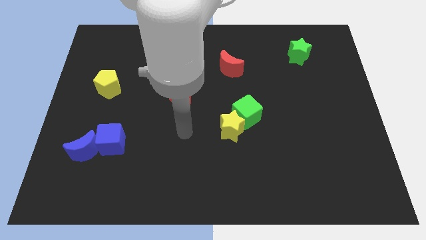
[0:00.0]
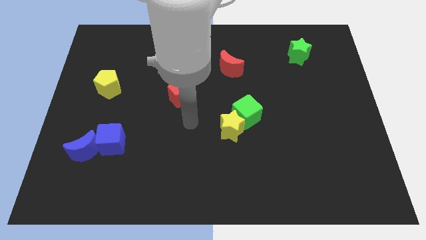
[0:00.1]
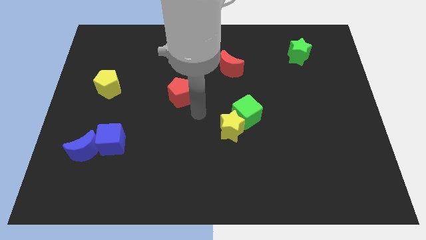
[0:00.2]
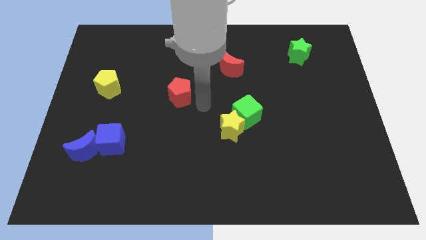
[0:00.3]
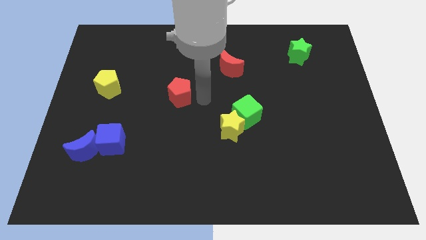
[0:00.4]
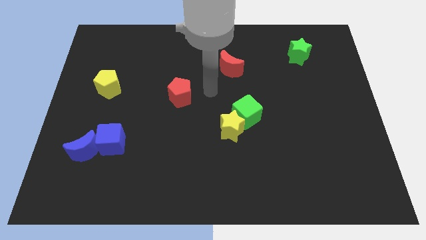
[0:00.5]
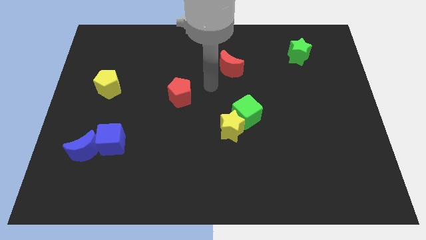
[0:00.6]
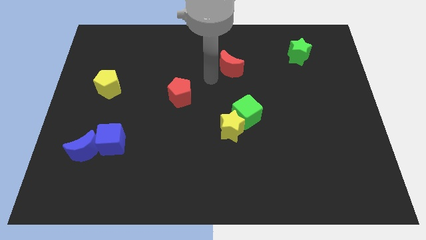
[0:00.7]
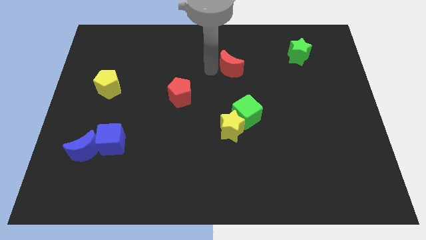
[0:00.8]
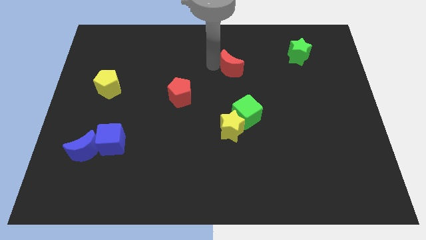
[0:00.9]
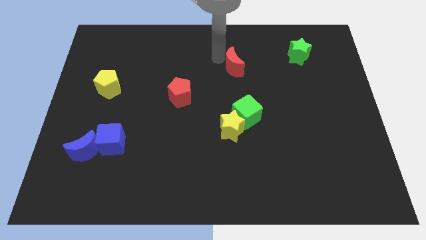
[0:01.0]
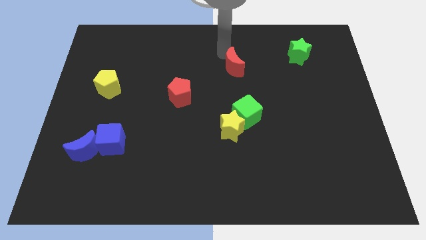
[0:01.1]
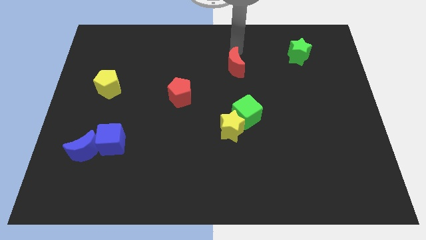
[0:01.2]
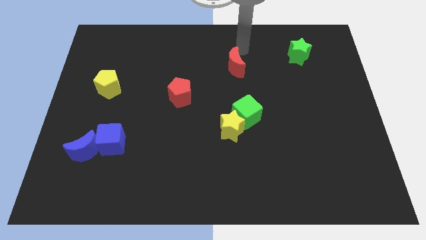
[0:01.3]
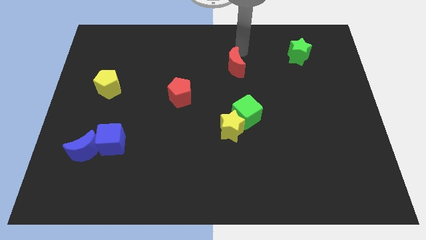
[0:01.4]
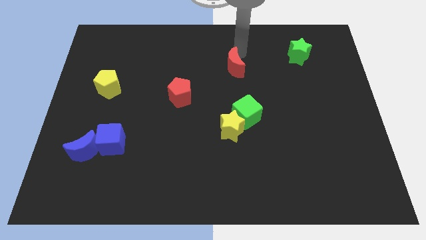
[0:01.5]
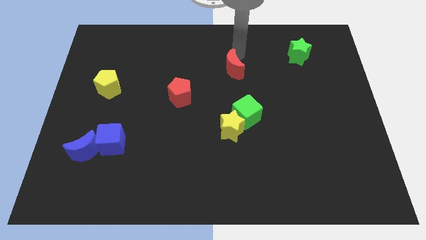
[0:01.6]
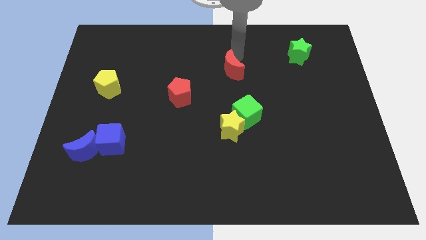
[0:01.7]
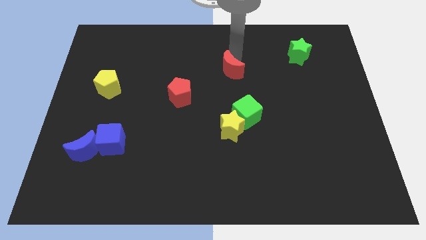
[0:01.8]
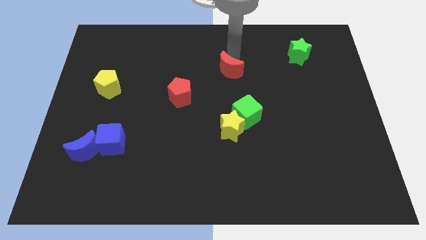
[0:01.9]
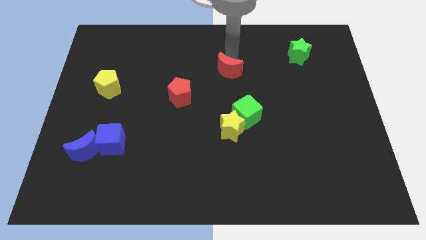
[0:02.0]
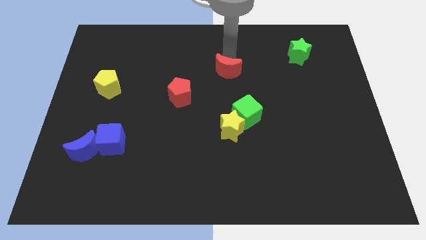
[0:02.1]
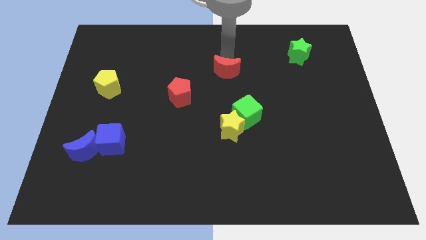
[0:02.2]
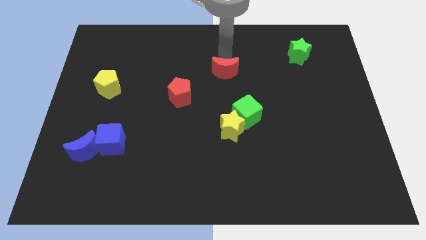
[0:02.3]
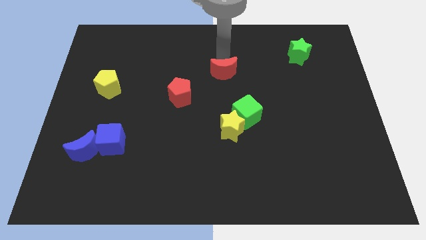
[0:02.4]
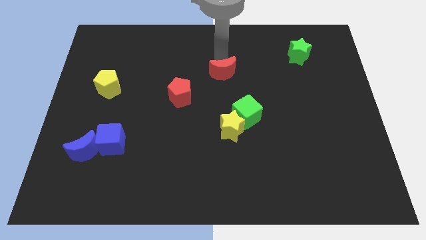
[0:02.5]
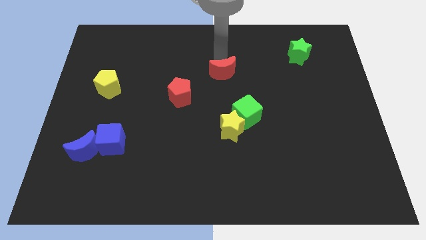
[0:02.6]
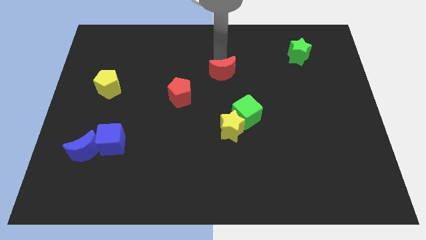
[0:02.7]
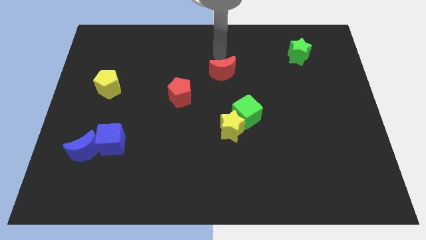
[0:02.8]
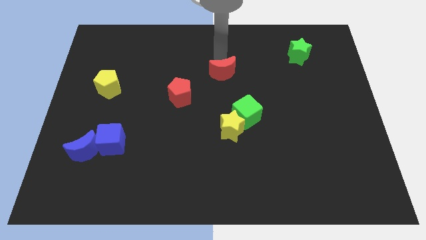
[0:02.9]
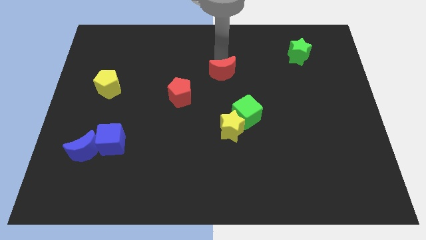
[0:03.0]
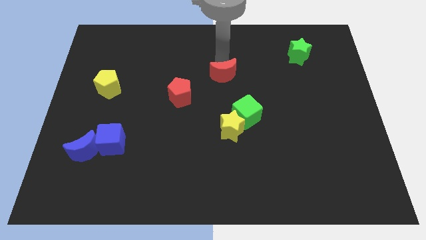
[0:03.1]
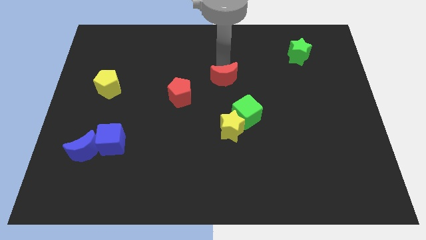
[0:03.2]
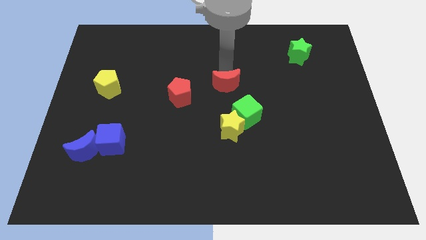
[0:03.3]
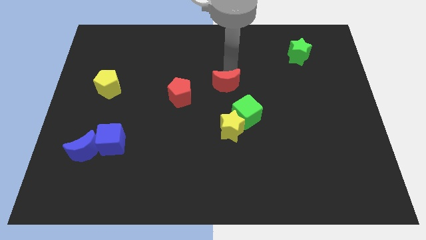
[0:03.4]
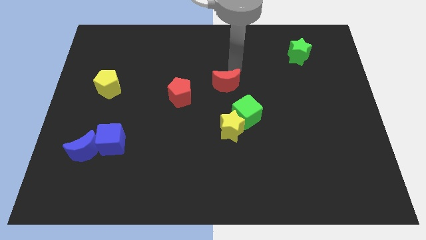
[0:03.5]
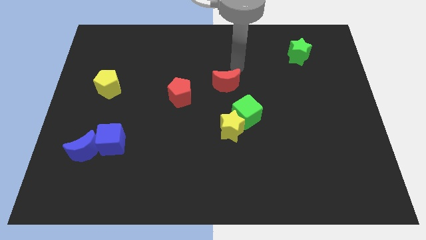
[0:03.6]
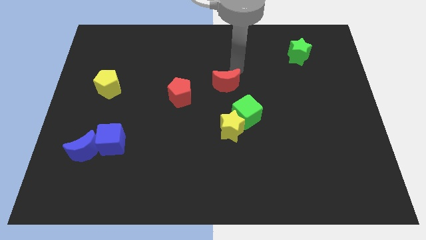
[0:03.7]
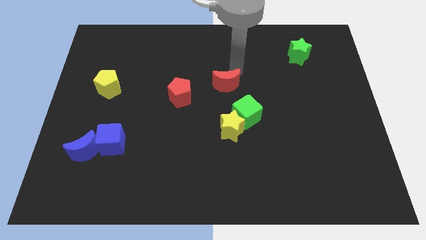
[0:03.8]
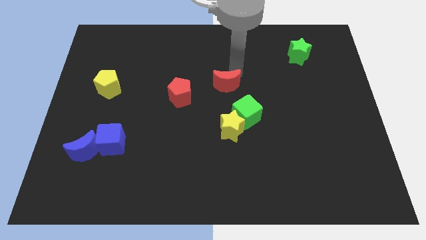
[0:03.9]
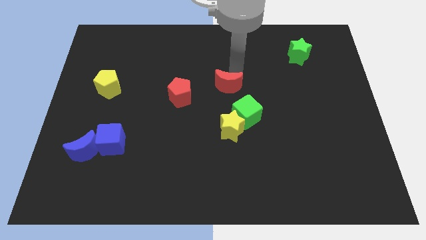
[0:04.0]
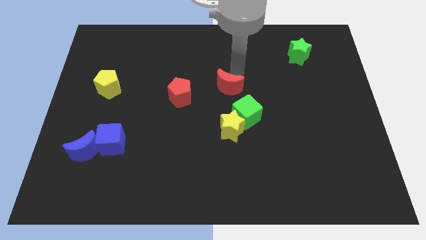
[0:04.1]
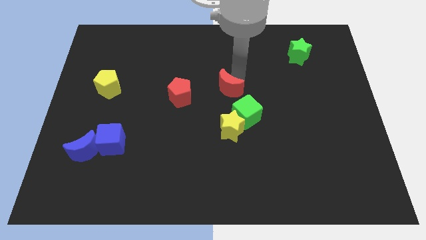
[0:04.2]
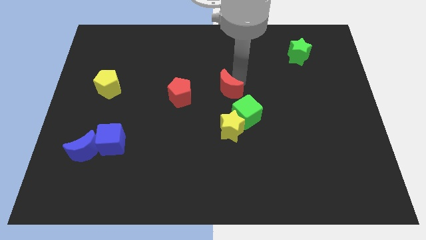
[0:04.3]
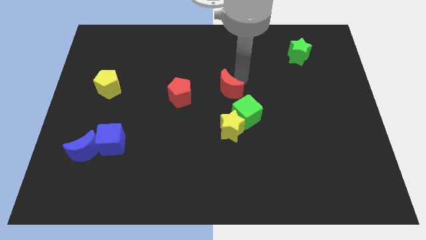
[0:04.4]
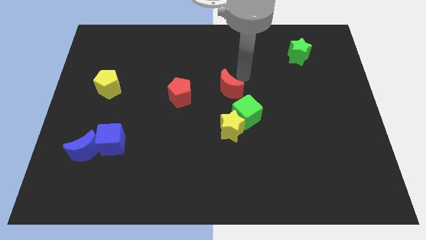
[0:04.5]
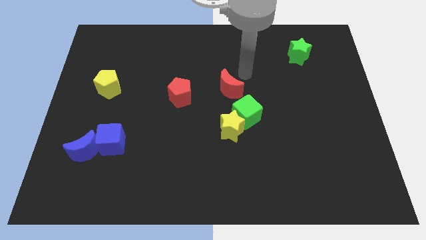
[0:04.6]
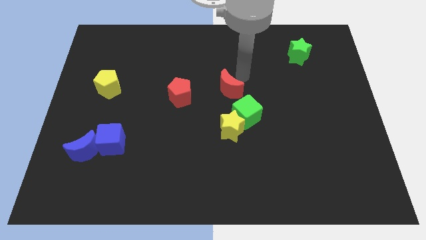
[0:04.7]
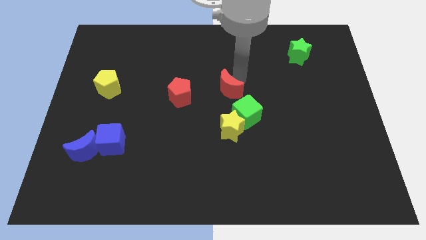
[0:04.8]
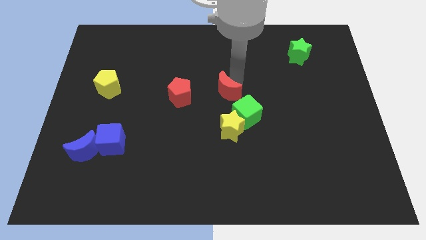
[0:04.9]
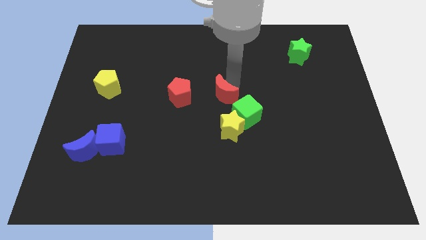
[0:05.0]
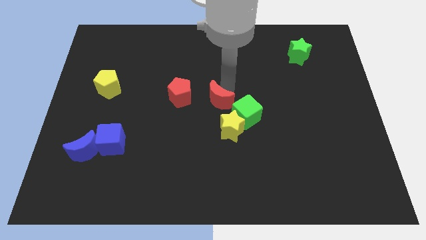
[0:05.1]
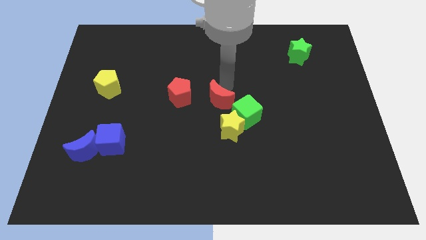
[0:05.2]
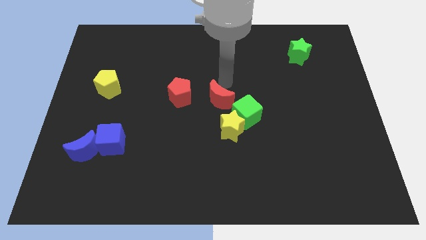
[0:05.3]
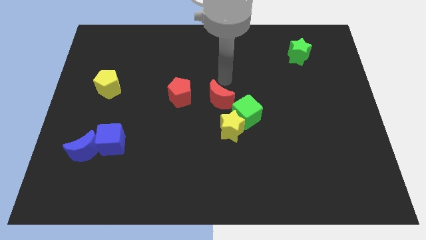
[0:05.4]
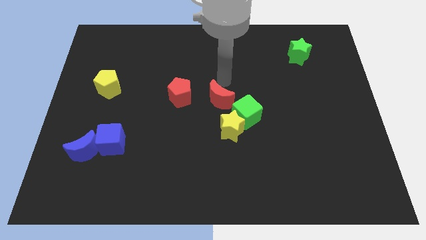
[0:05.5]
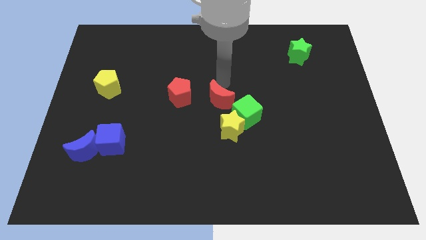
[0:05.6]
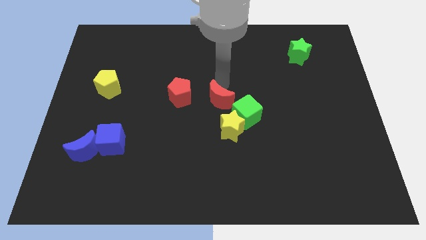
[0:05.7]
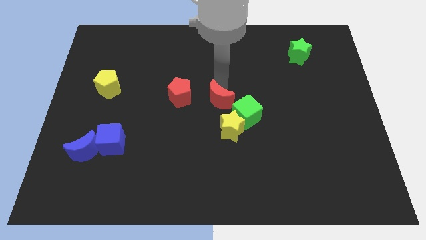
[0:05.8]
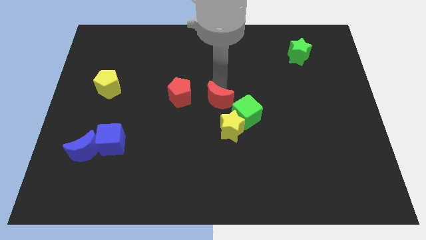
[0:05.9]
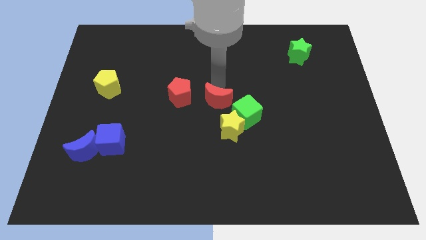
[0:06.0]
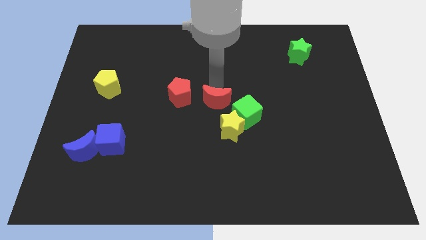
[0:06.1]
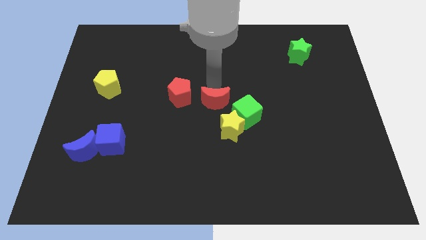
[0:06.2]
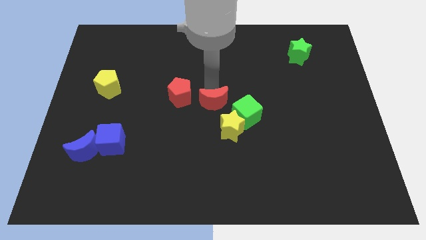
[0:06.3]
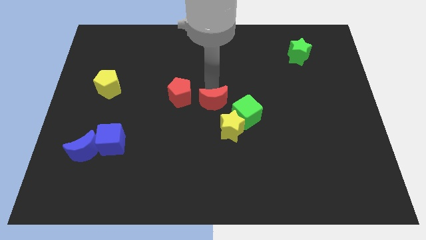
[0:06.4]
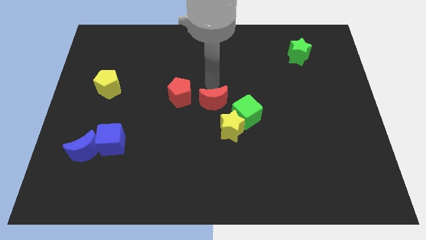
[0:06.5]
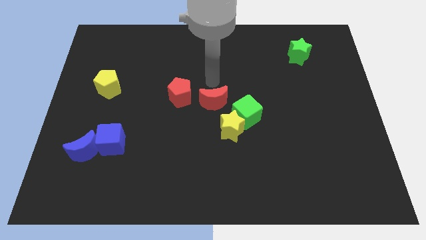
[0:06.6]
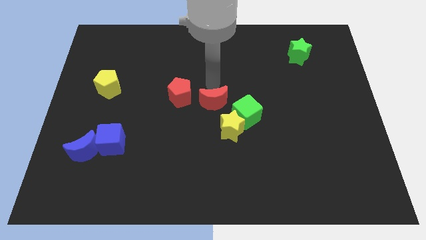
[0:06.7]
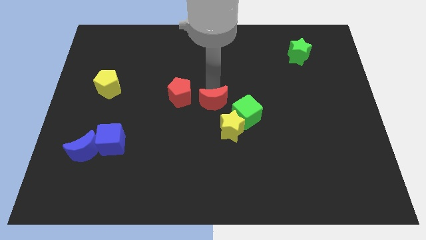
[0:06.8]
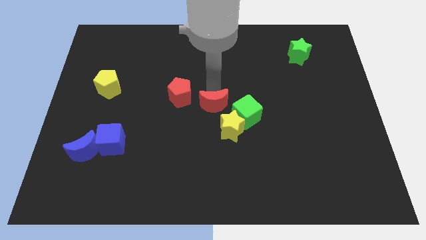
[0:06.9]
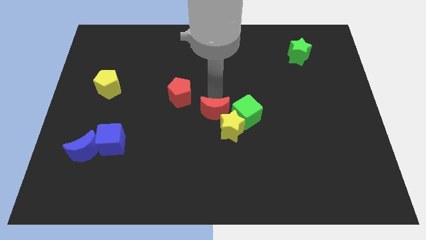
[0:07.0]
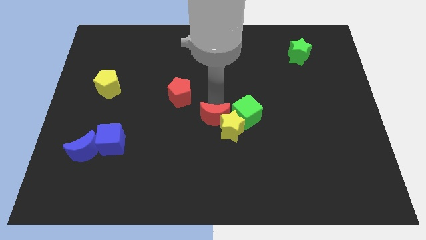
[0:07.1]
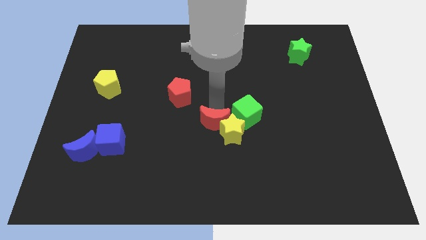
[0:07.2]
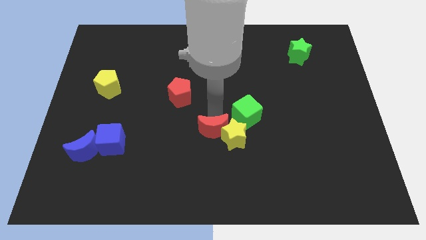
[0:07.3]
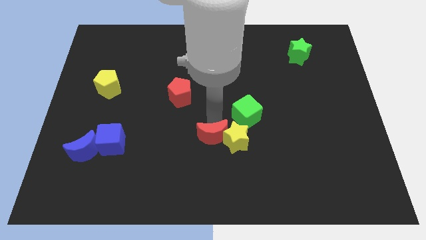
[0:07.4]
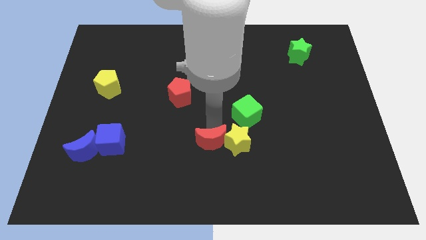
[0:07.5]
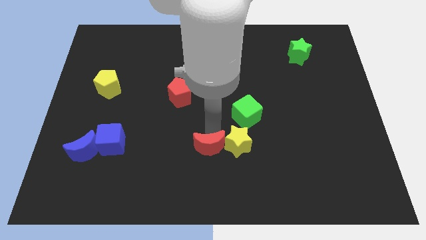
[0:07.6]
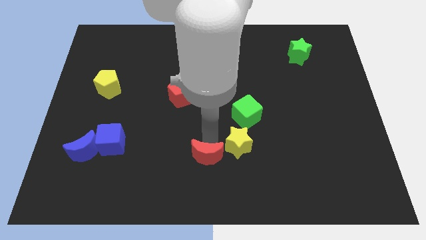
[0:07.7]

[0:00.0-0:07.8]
move the red moon to the bottom
